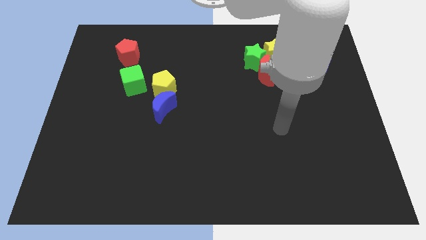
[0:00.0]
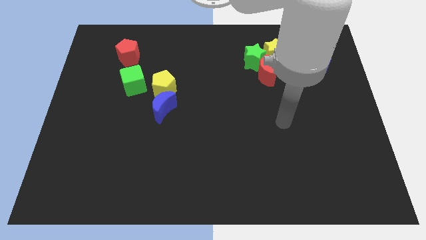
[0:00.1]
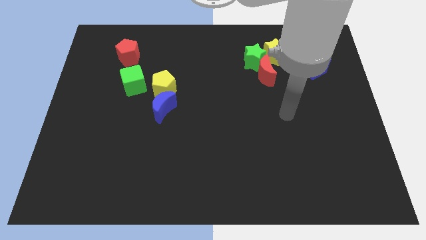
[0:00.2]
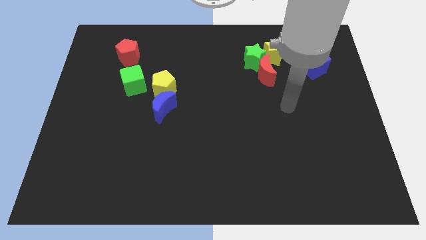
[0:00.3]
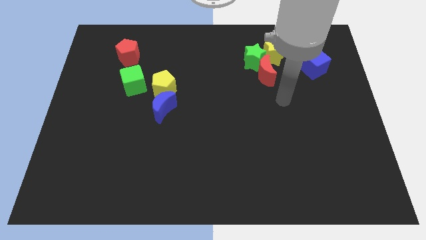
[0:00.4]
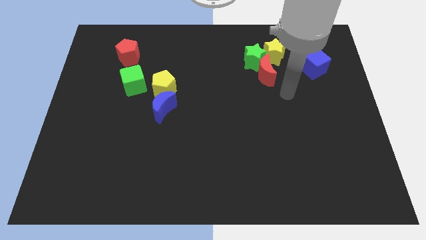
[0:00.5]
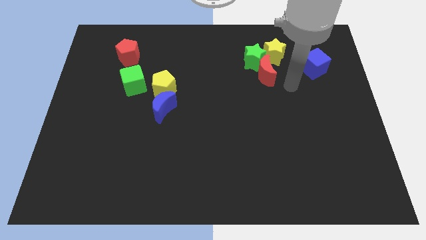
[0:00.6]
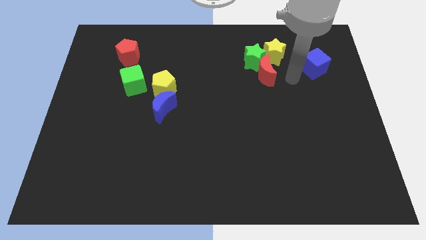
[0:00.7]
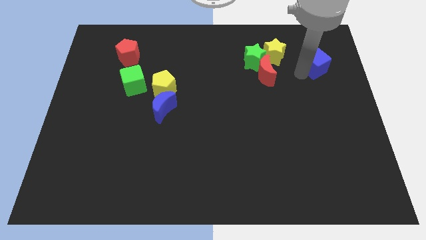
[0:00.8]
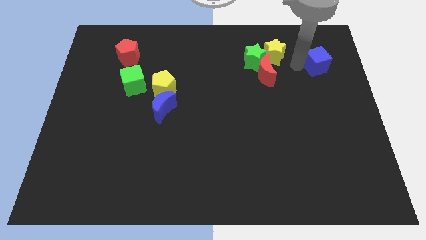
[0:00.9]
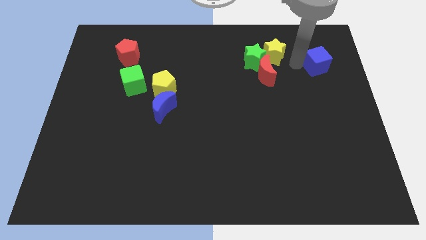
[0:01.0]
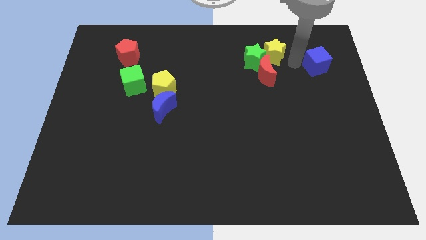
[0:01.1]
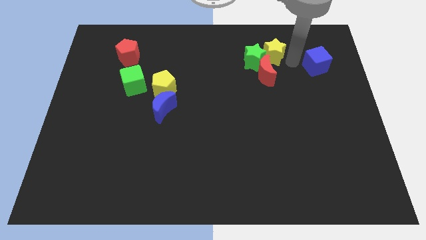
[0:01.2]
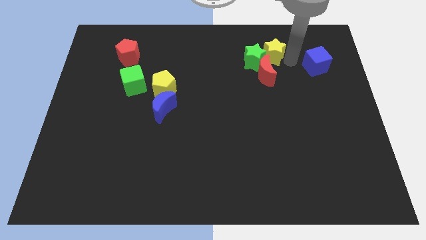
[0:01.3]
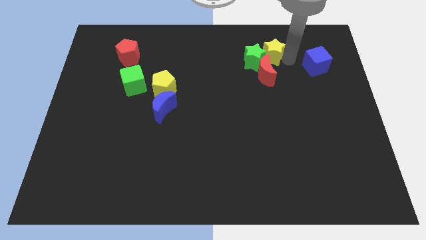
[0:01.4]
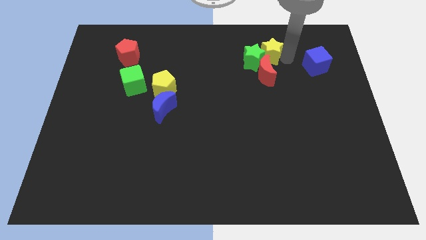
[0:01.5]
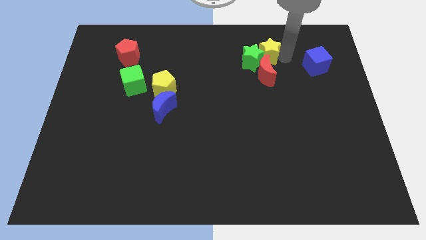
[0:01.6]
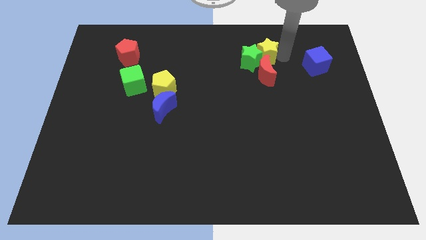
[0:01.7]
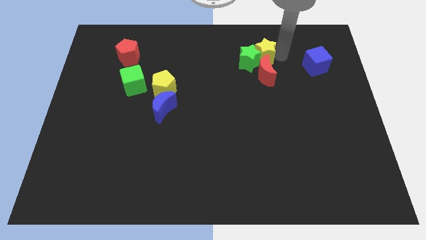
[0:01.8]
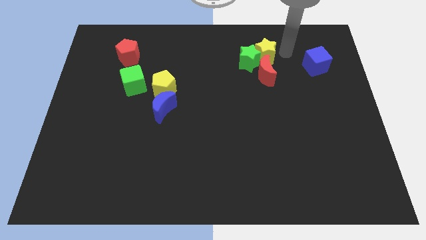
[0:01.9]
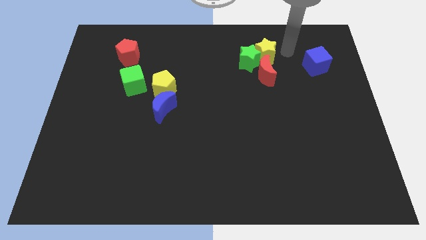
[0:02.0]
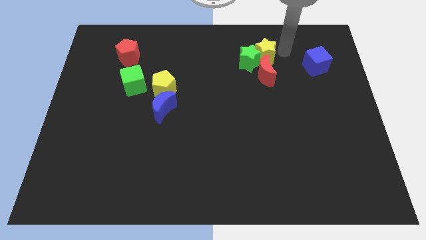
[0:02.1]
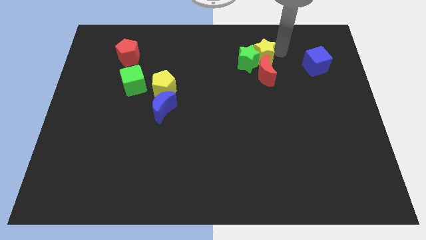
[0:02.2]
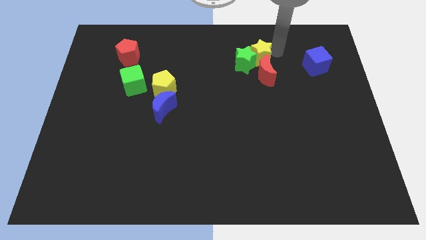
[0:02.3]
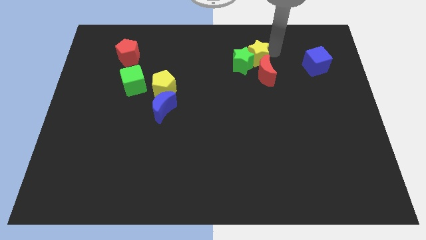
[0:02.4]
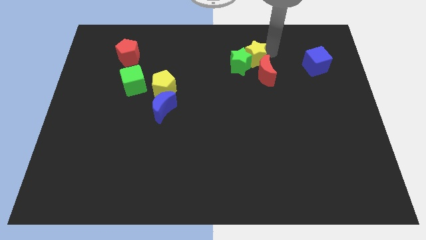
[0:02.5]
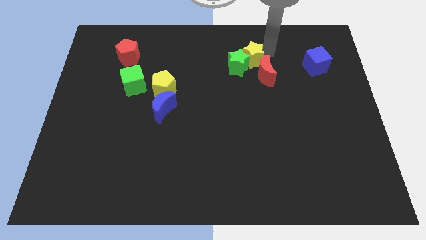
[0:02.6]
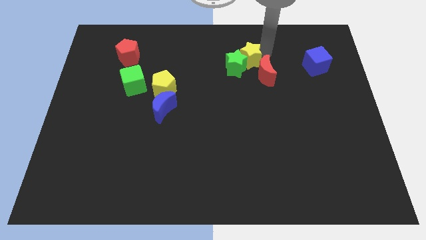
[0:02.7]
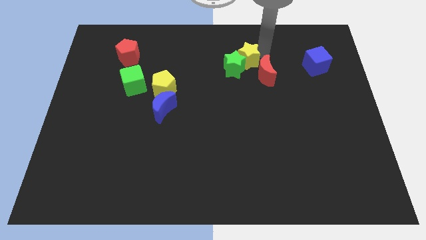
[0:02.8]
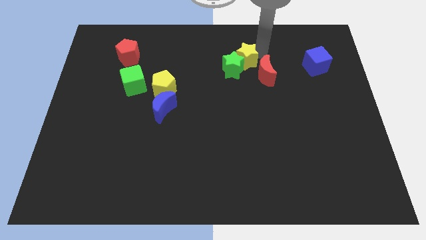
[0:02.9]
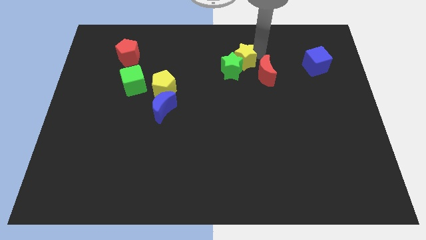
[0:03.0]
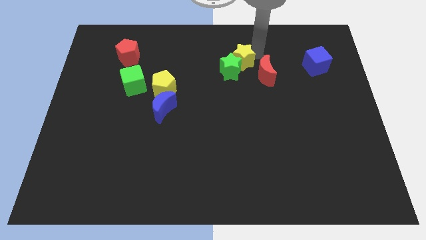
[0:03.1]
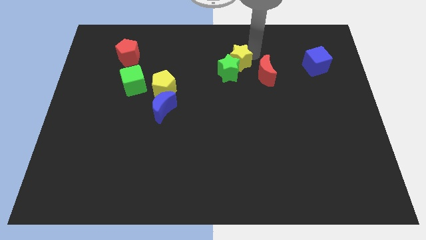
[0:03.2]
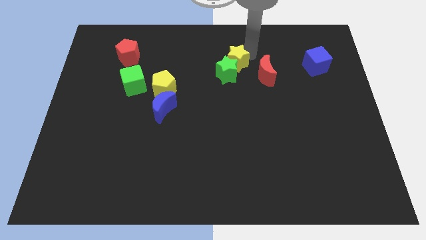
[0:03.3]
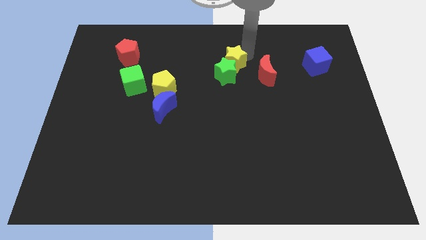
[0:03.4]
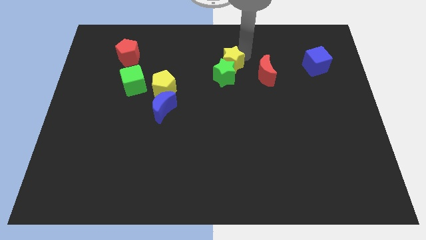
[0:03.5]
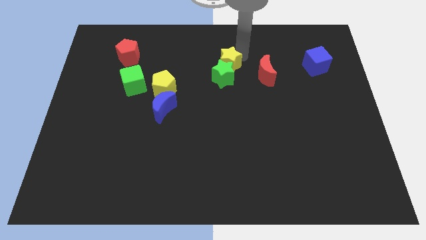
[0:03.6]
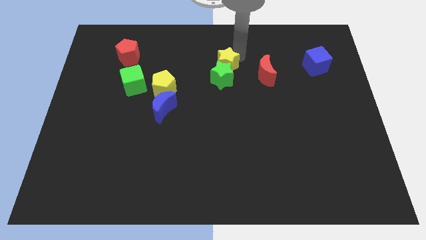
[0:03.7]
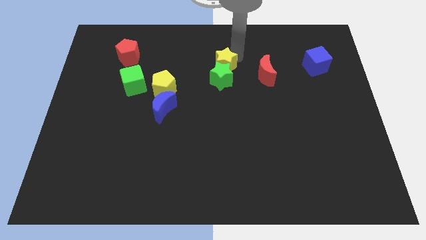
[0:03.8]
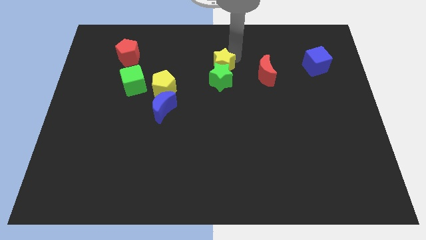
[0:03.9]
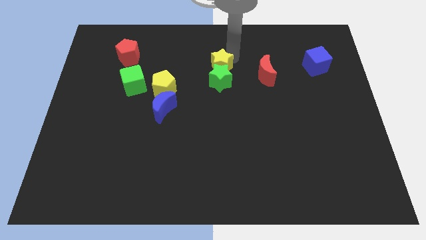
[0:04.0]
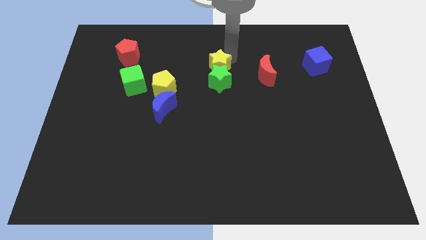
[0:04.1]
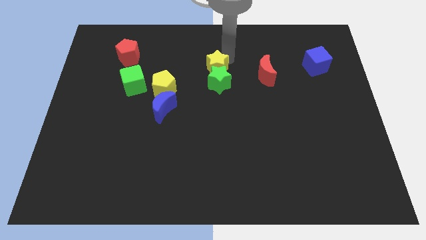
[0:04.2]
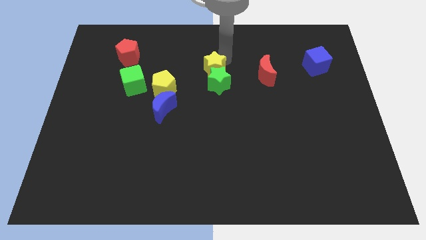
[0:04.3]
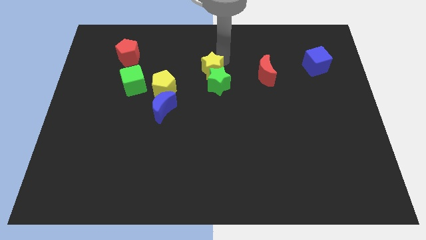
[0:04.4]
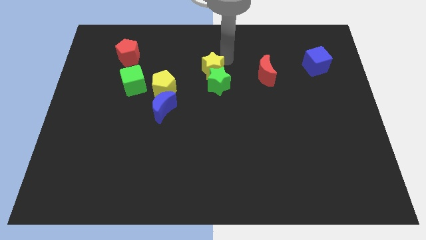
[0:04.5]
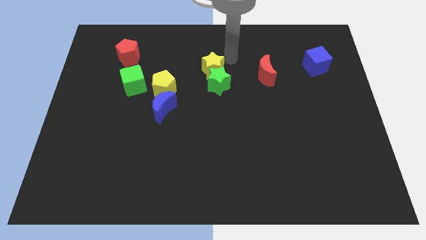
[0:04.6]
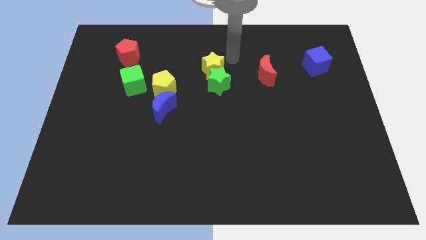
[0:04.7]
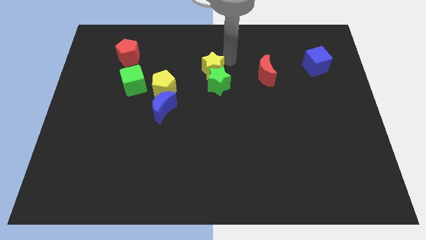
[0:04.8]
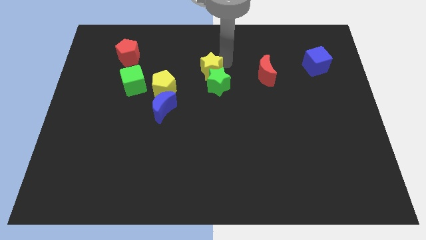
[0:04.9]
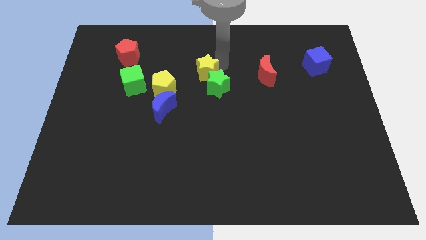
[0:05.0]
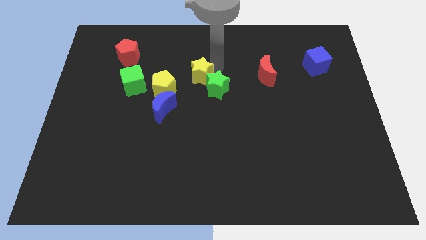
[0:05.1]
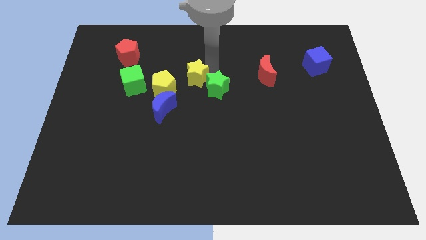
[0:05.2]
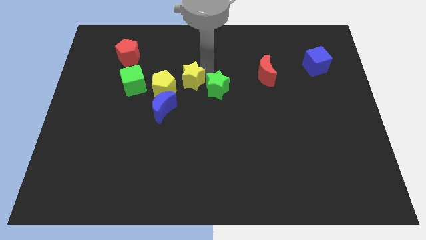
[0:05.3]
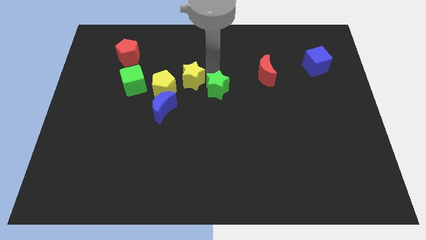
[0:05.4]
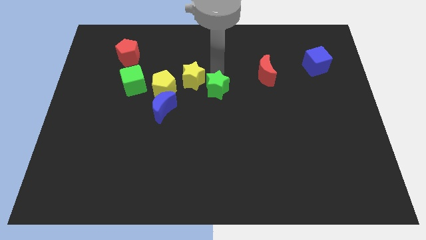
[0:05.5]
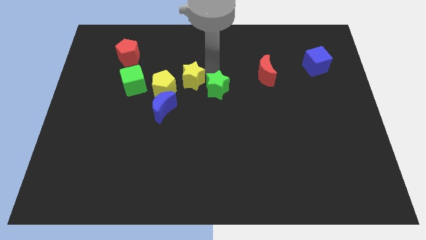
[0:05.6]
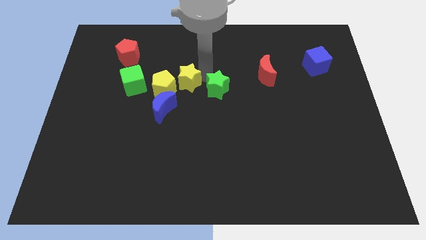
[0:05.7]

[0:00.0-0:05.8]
slide the yellow star towards the yellow pentagon

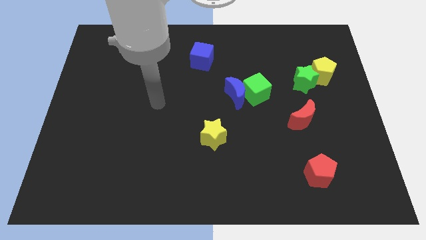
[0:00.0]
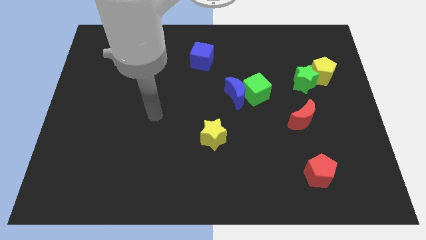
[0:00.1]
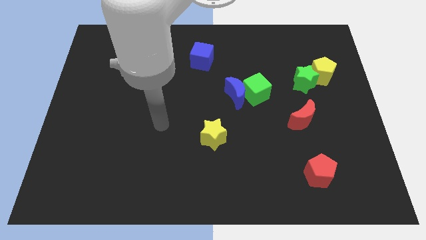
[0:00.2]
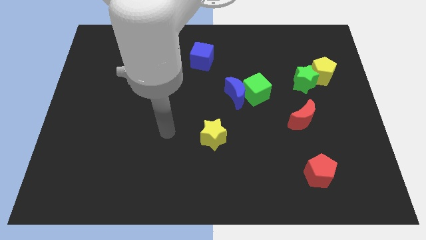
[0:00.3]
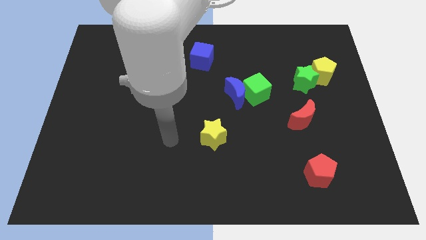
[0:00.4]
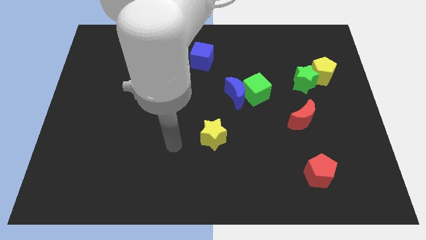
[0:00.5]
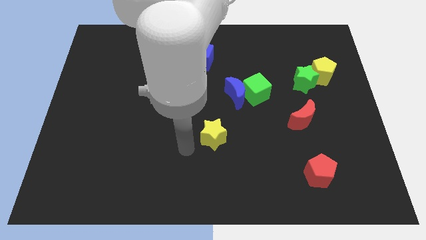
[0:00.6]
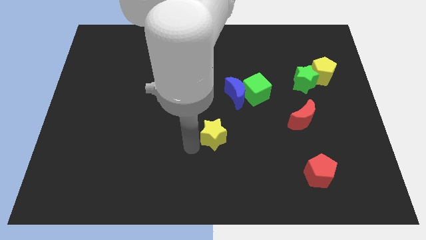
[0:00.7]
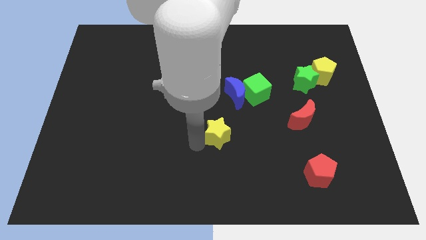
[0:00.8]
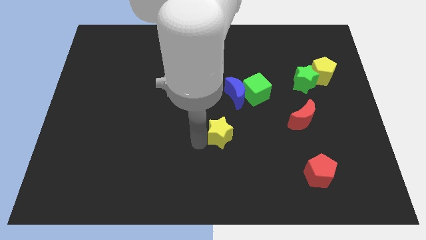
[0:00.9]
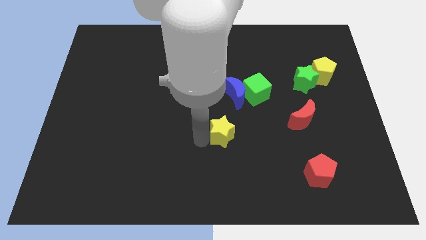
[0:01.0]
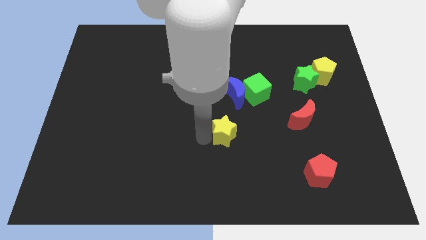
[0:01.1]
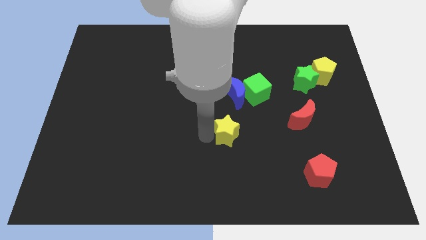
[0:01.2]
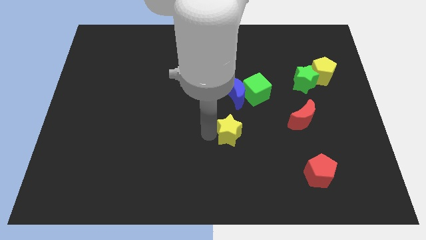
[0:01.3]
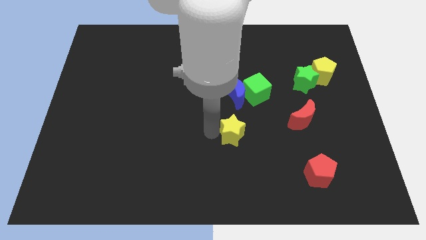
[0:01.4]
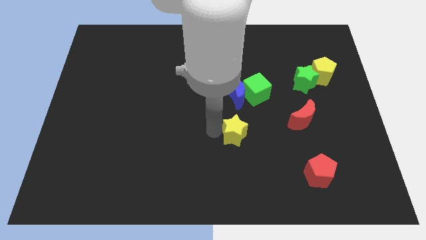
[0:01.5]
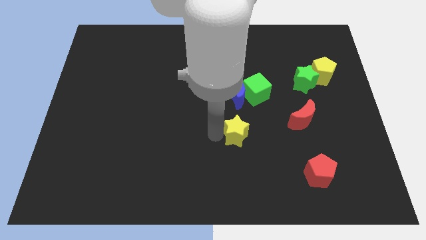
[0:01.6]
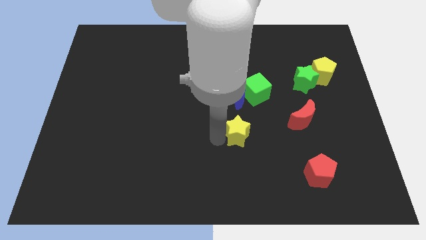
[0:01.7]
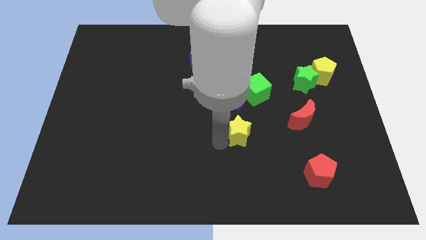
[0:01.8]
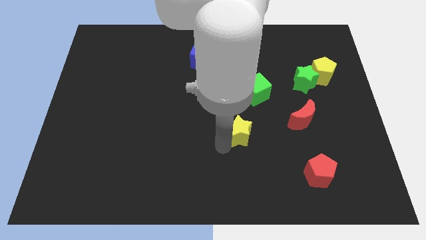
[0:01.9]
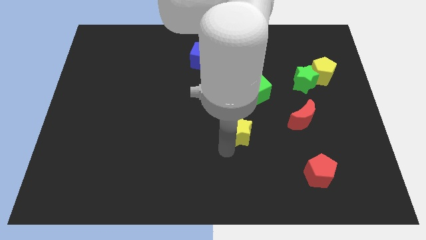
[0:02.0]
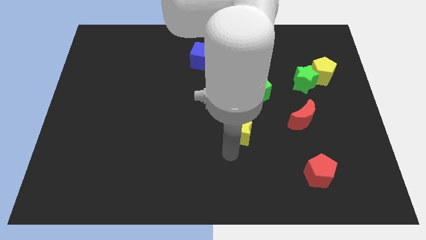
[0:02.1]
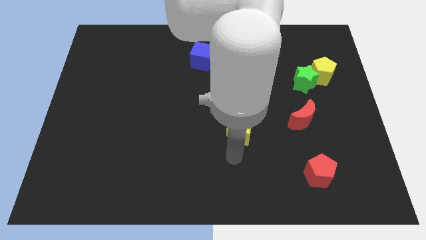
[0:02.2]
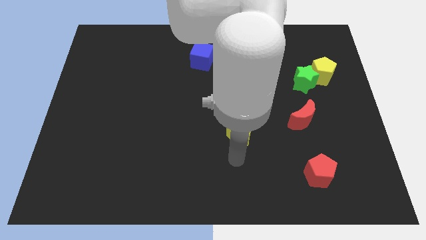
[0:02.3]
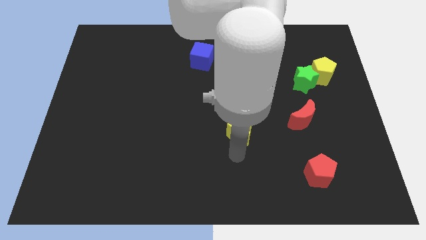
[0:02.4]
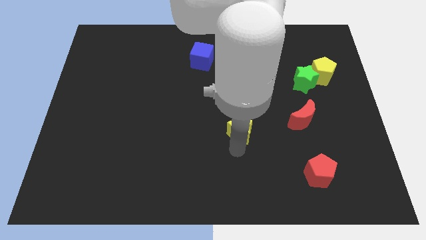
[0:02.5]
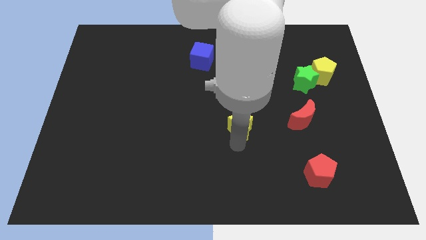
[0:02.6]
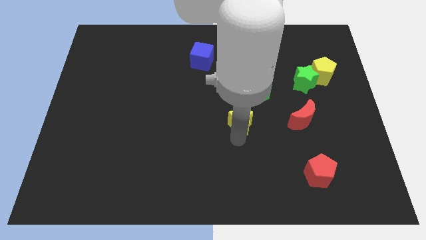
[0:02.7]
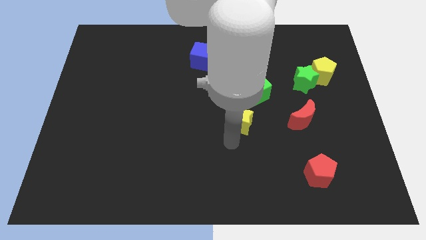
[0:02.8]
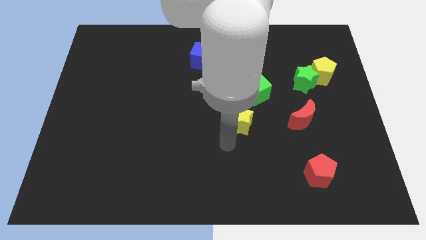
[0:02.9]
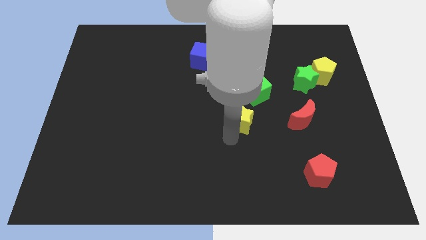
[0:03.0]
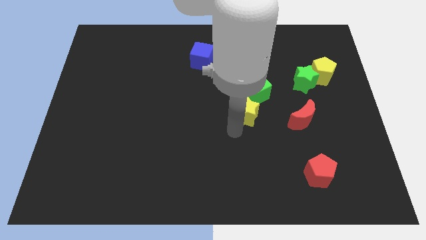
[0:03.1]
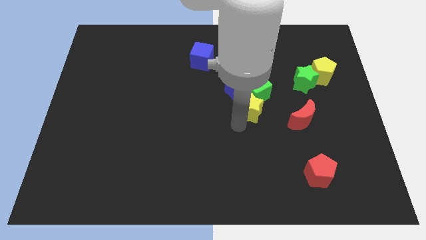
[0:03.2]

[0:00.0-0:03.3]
push the yellow star close to the green cube
